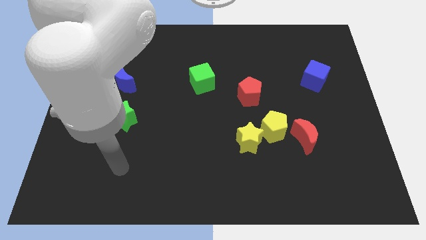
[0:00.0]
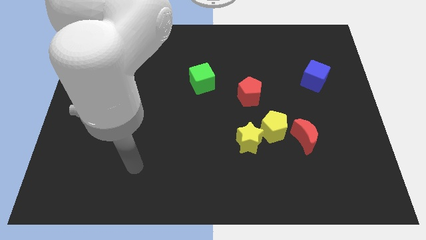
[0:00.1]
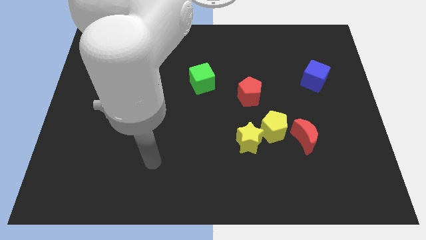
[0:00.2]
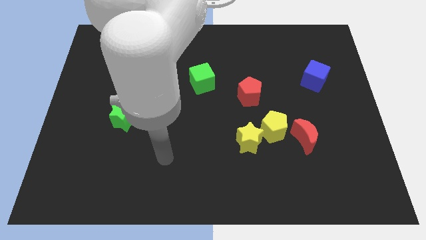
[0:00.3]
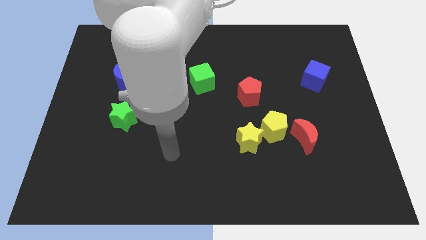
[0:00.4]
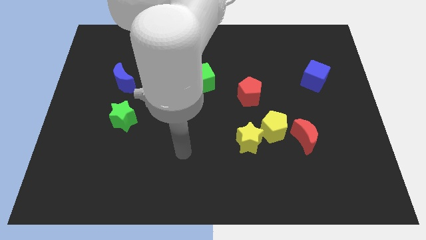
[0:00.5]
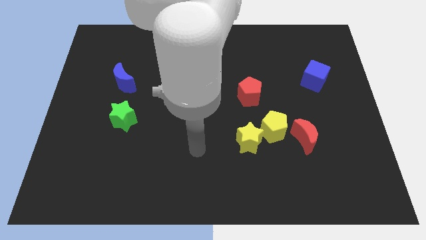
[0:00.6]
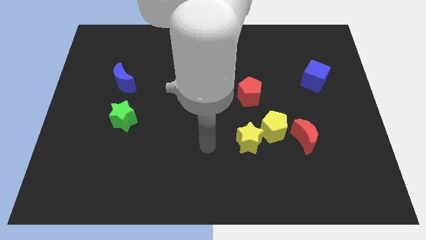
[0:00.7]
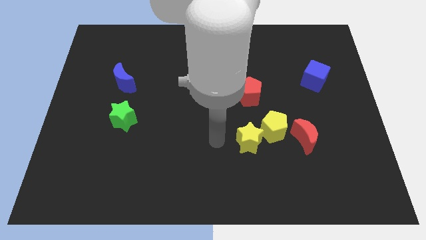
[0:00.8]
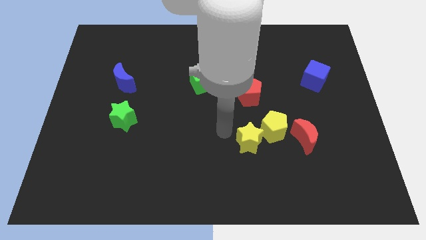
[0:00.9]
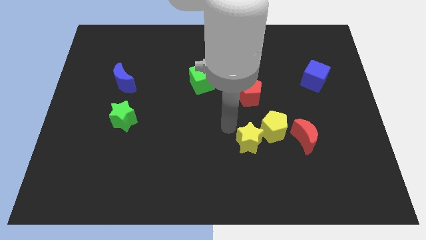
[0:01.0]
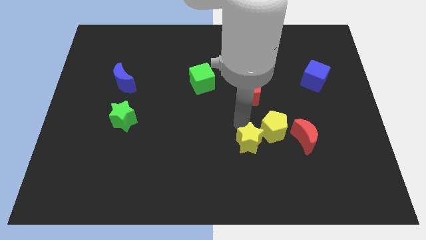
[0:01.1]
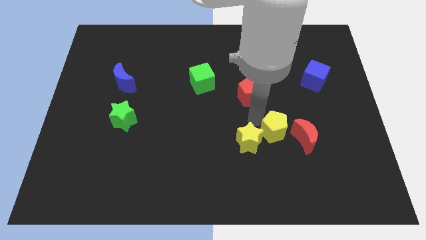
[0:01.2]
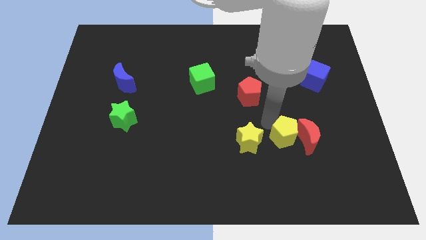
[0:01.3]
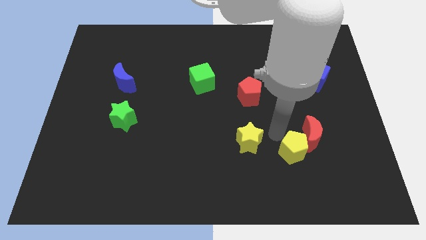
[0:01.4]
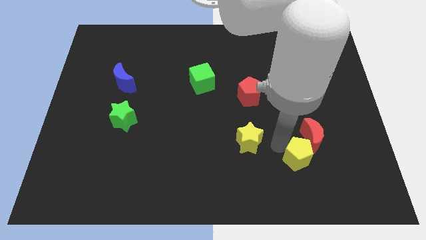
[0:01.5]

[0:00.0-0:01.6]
separate the yellow star from the yellow pentagon

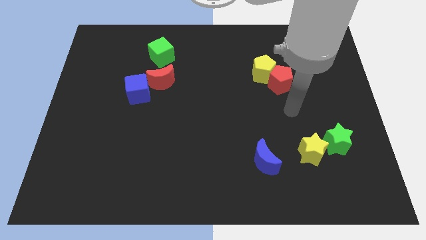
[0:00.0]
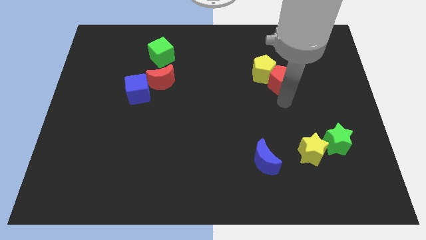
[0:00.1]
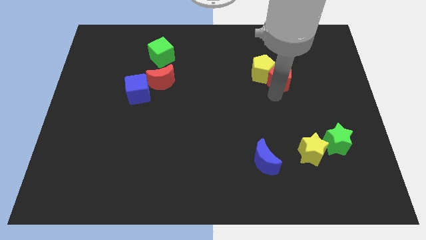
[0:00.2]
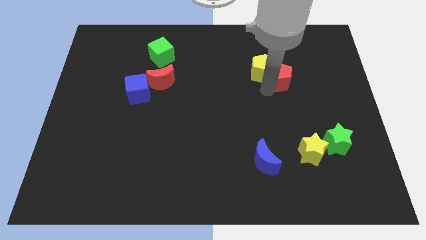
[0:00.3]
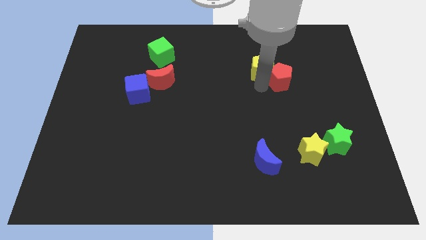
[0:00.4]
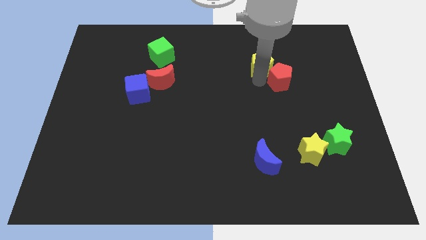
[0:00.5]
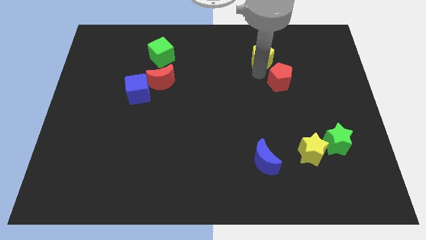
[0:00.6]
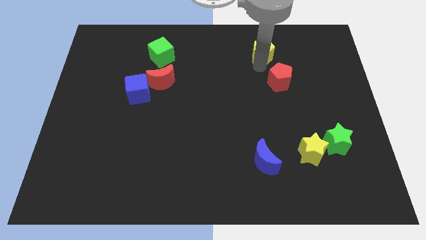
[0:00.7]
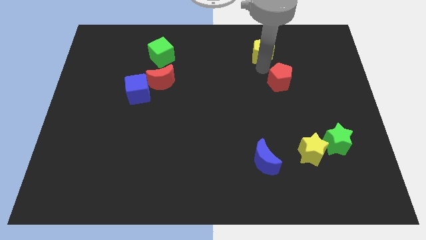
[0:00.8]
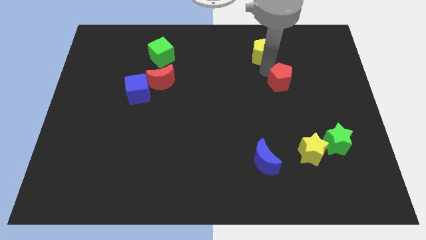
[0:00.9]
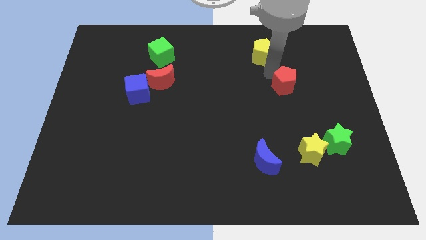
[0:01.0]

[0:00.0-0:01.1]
separate the red pentagon from the yellow pentagon

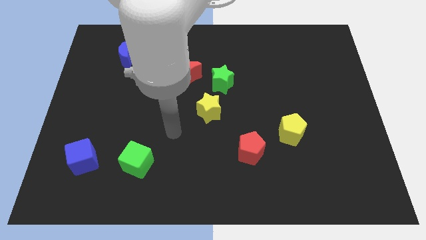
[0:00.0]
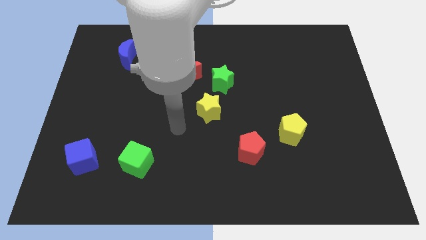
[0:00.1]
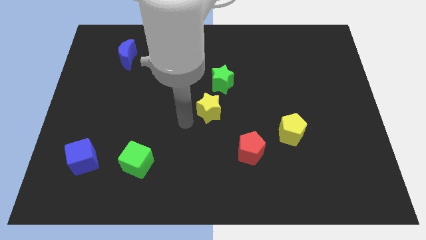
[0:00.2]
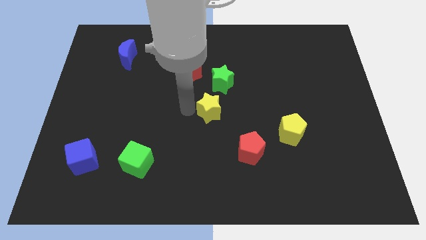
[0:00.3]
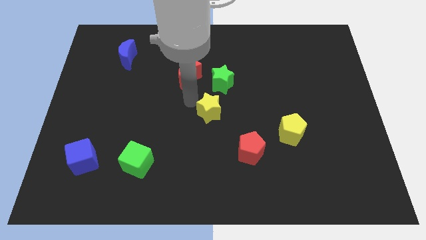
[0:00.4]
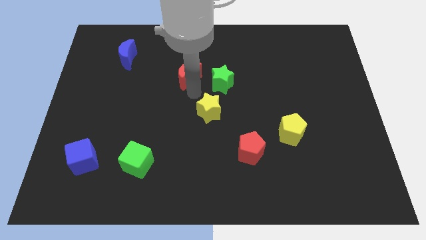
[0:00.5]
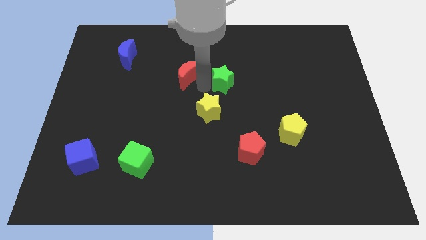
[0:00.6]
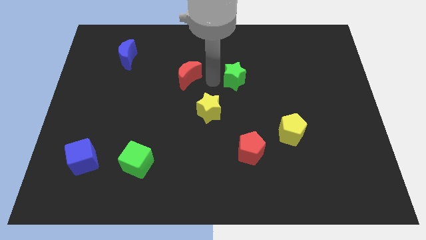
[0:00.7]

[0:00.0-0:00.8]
pull the red moon apart from the green star

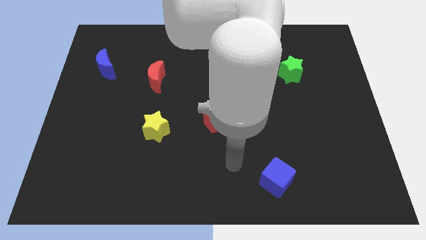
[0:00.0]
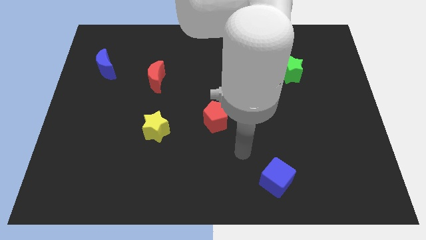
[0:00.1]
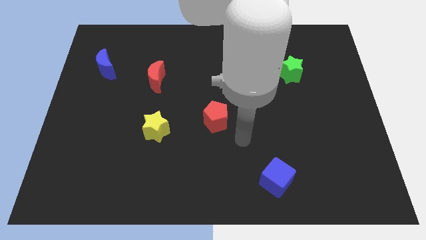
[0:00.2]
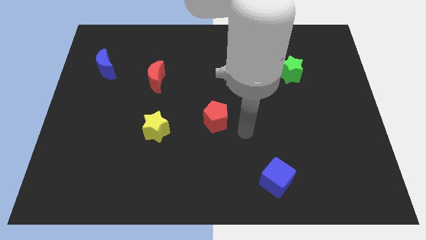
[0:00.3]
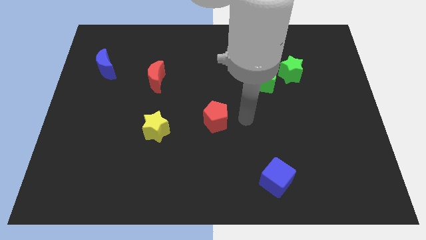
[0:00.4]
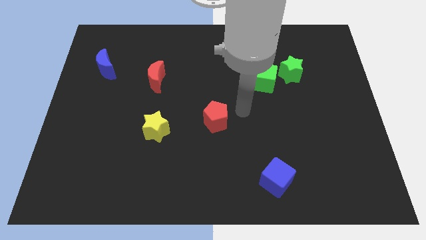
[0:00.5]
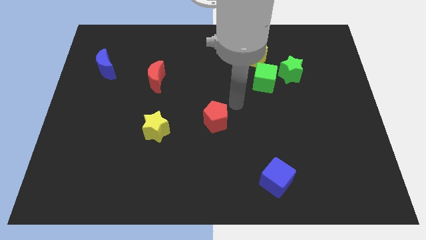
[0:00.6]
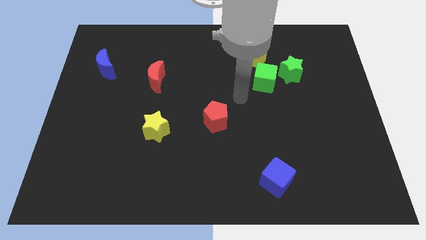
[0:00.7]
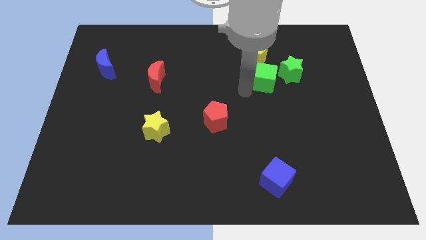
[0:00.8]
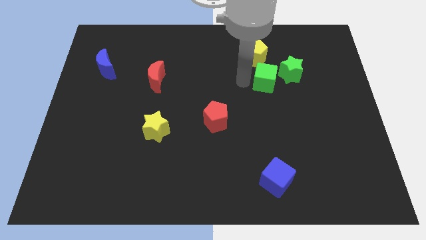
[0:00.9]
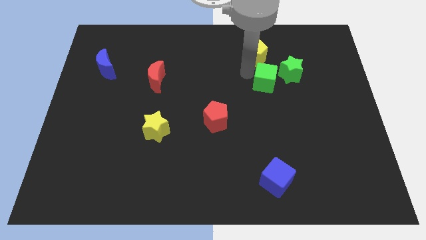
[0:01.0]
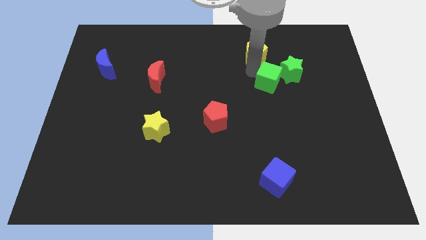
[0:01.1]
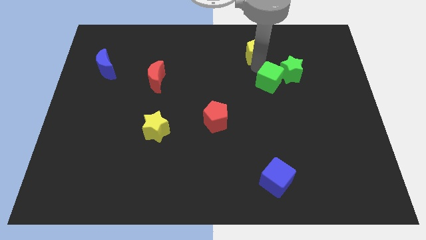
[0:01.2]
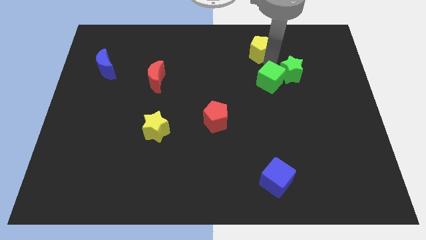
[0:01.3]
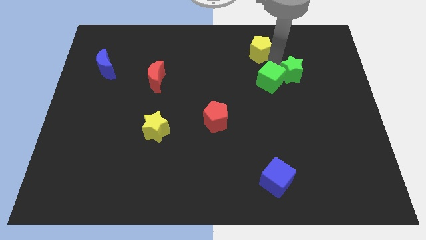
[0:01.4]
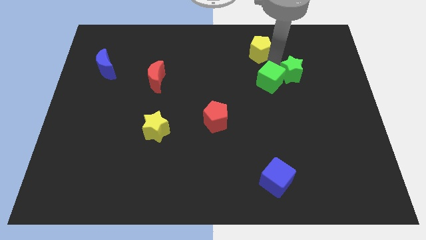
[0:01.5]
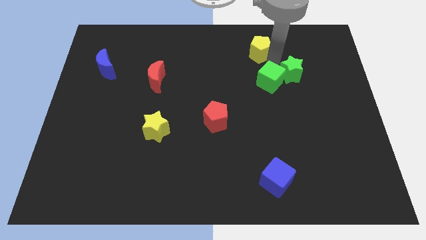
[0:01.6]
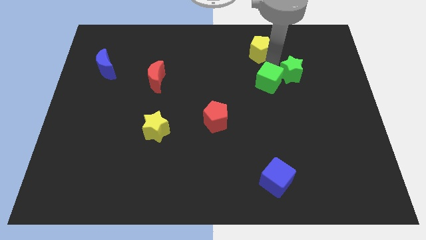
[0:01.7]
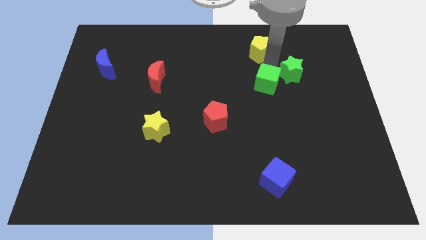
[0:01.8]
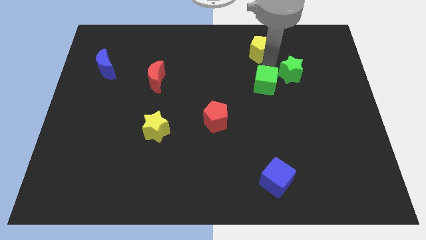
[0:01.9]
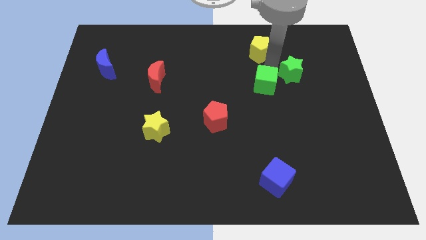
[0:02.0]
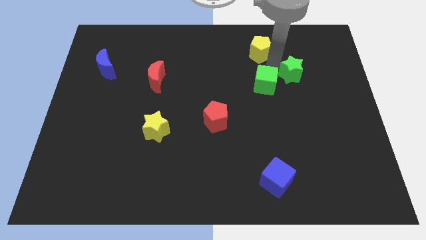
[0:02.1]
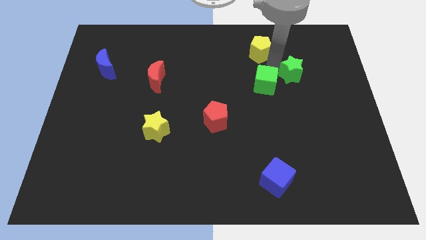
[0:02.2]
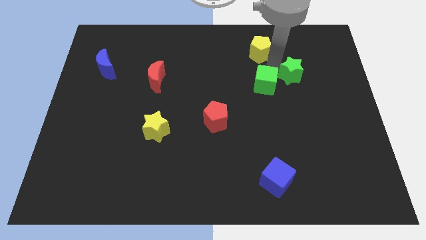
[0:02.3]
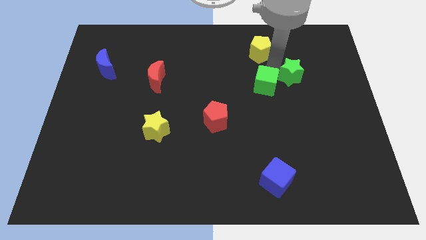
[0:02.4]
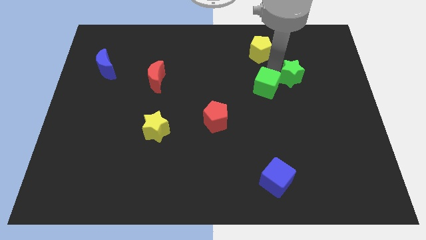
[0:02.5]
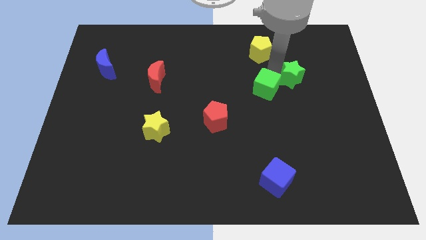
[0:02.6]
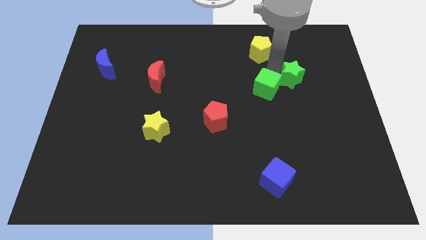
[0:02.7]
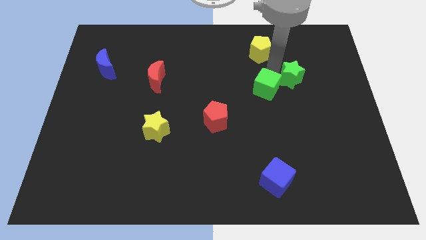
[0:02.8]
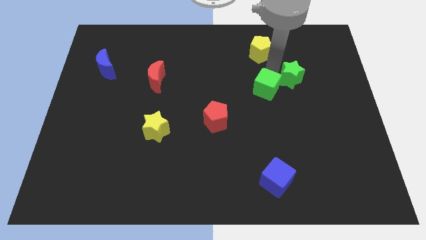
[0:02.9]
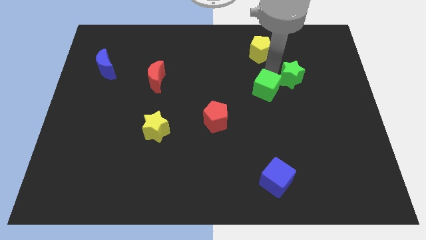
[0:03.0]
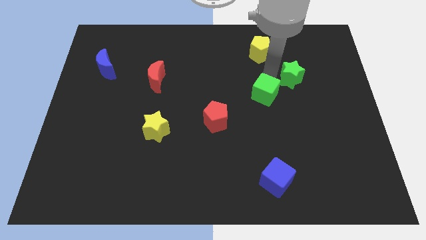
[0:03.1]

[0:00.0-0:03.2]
pull the green cube apart from the green star and yellow pentagon

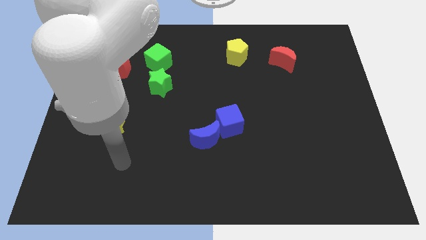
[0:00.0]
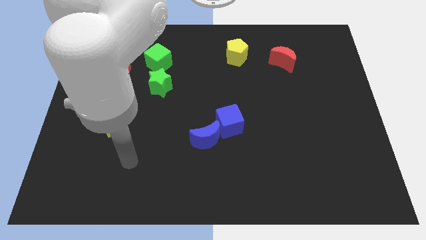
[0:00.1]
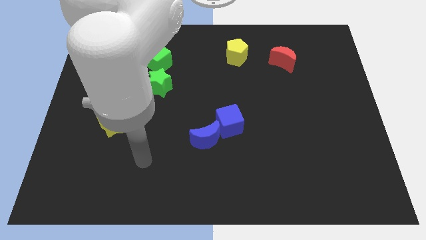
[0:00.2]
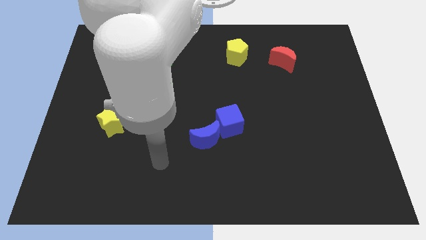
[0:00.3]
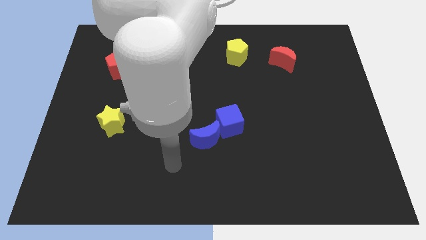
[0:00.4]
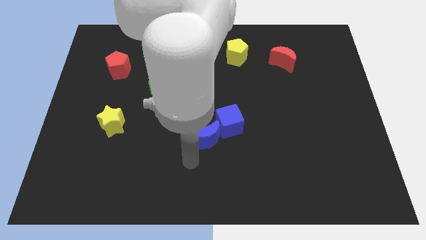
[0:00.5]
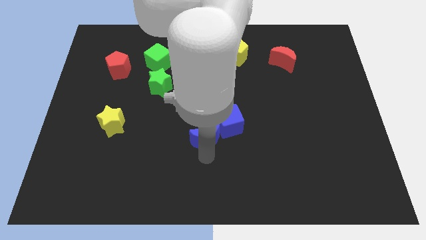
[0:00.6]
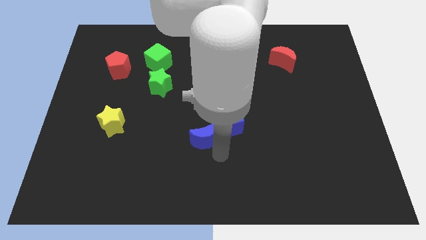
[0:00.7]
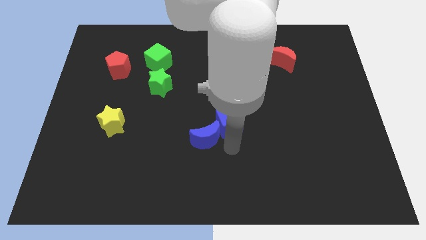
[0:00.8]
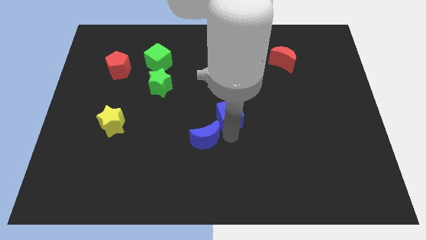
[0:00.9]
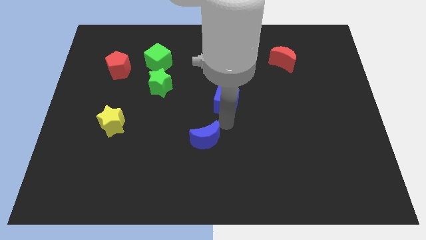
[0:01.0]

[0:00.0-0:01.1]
separate the blue moon from the blue cube

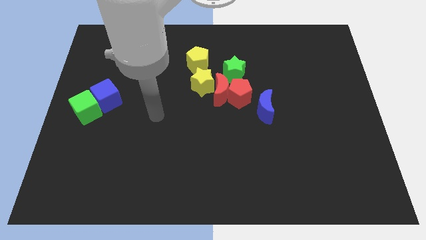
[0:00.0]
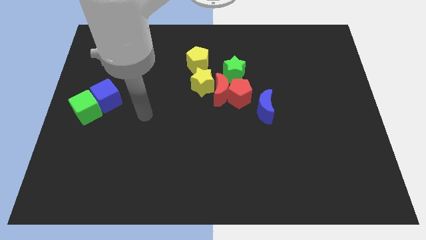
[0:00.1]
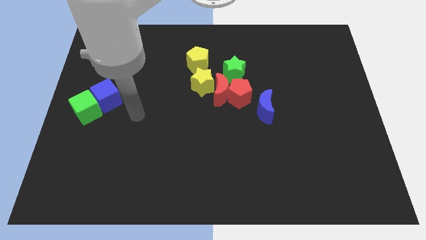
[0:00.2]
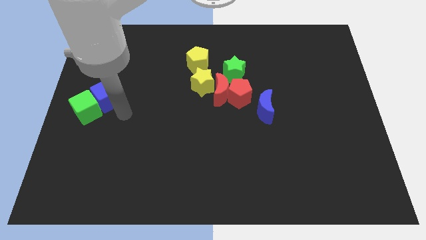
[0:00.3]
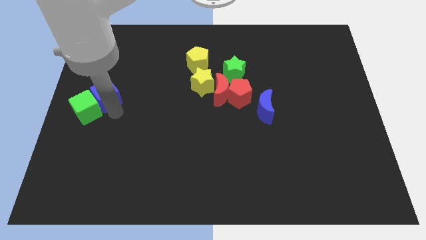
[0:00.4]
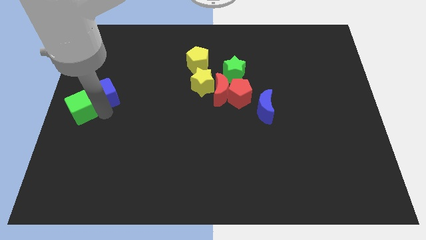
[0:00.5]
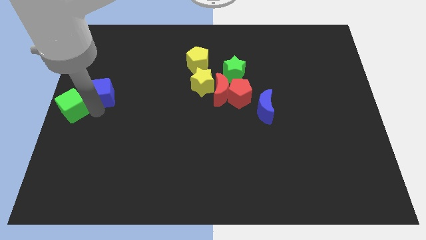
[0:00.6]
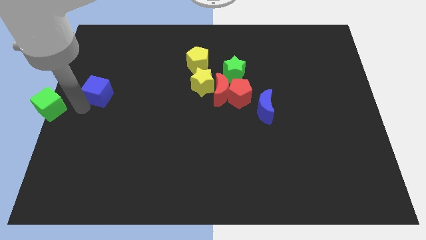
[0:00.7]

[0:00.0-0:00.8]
separate the blue cube from the green cube

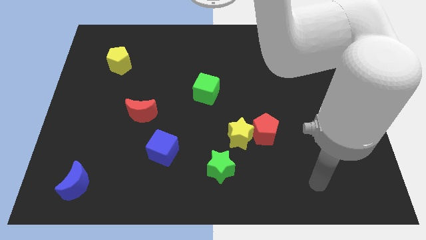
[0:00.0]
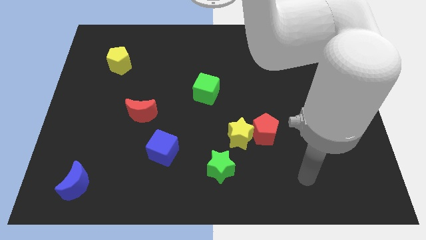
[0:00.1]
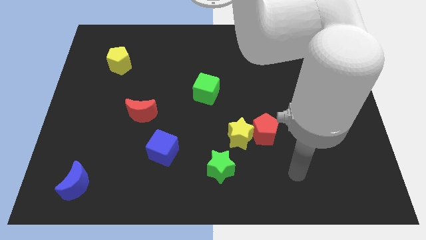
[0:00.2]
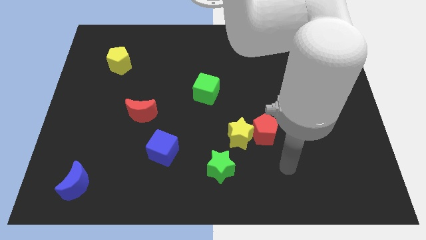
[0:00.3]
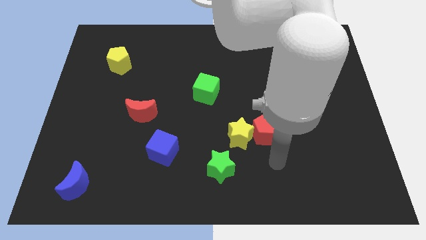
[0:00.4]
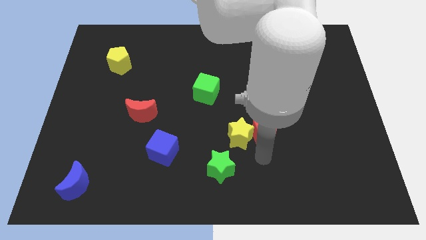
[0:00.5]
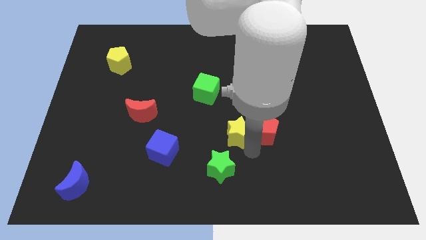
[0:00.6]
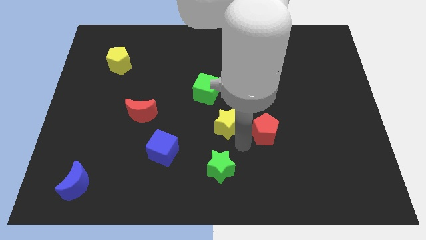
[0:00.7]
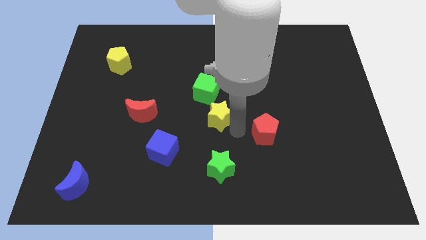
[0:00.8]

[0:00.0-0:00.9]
move the red pentagon away from the yellow star
